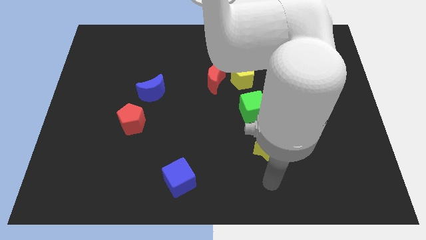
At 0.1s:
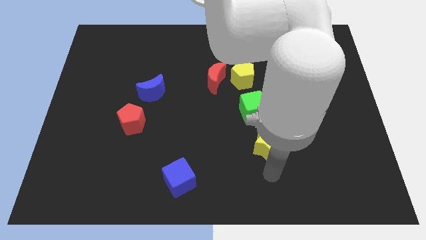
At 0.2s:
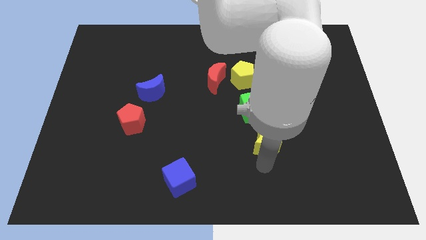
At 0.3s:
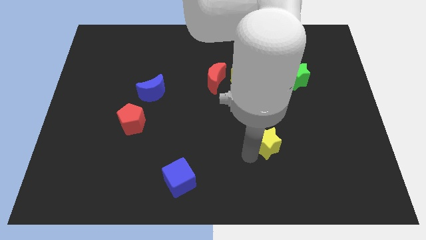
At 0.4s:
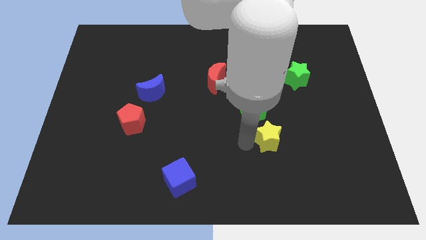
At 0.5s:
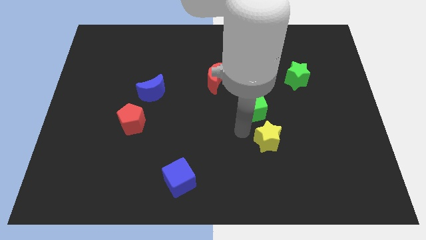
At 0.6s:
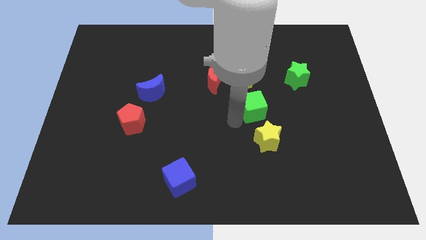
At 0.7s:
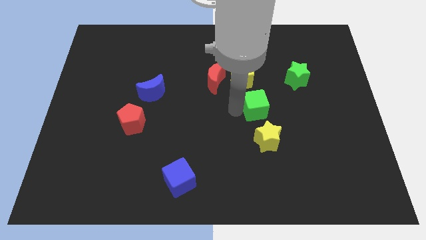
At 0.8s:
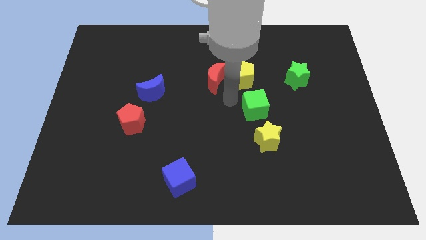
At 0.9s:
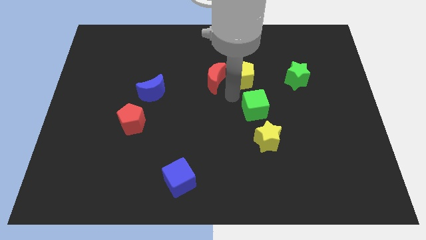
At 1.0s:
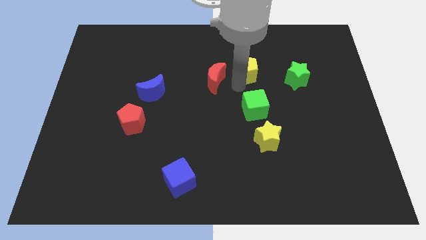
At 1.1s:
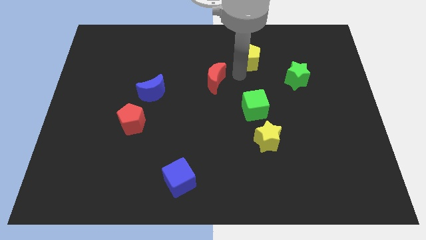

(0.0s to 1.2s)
move the red moon away from the yellow pentagon

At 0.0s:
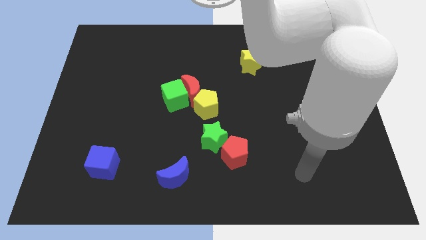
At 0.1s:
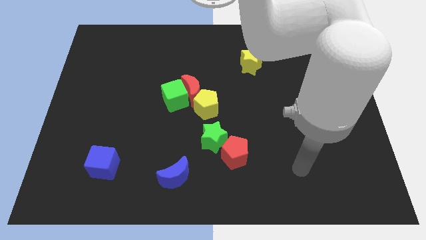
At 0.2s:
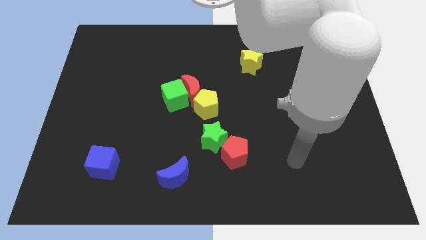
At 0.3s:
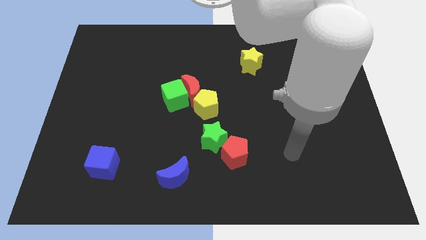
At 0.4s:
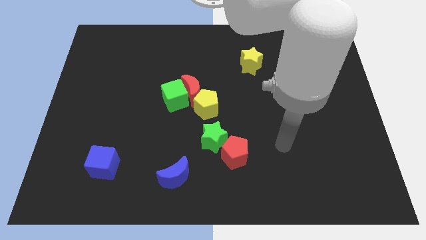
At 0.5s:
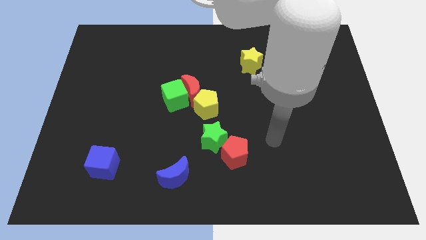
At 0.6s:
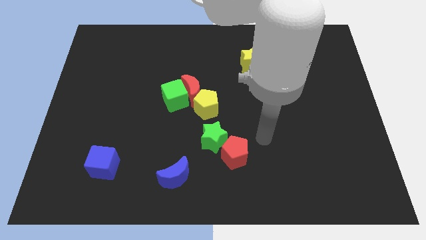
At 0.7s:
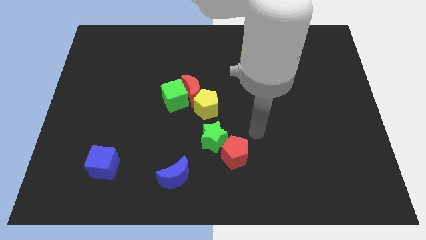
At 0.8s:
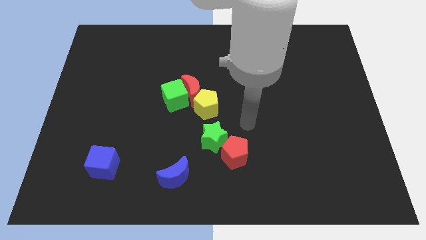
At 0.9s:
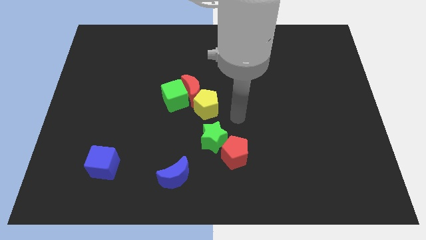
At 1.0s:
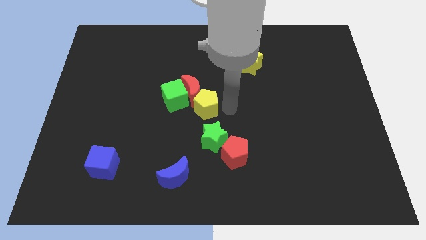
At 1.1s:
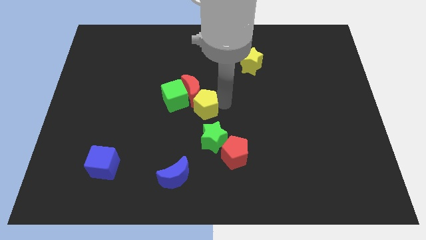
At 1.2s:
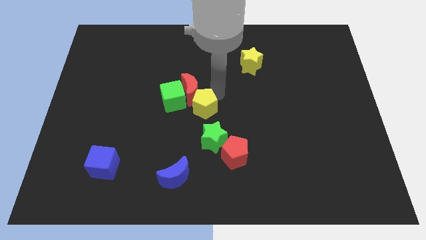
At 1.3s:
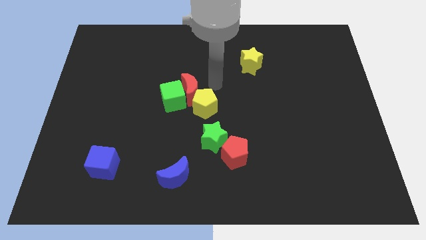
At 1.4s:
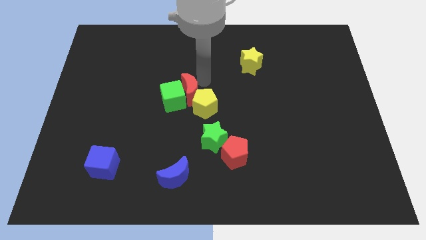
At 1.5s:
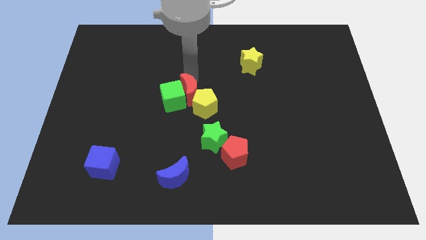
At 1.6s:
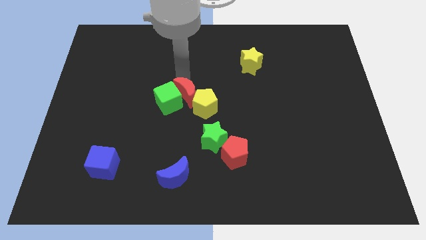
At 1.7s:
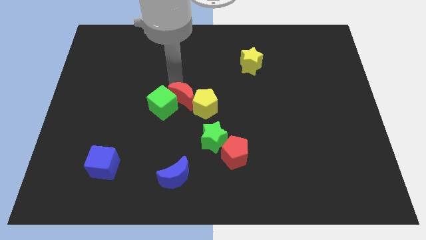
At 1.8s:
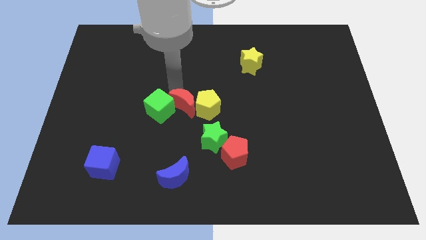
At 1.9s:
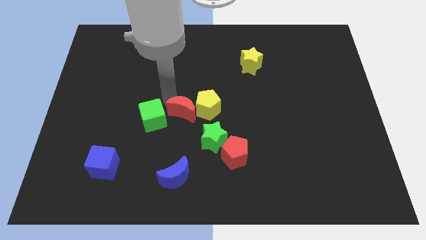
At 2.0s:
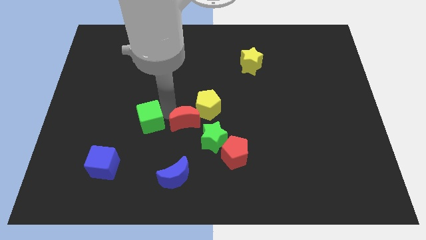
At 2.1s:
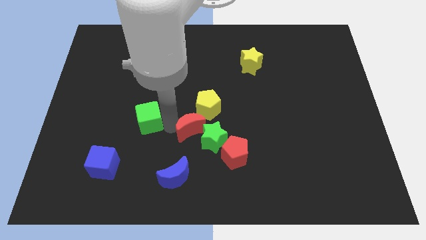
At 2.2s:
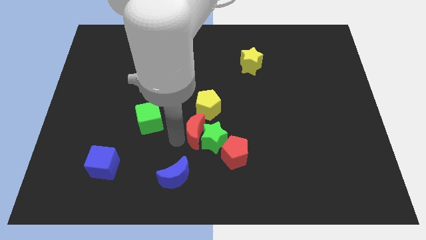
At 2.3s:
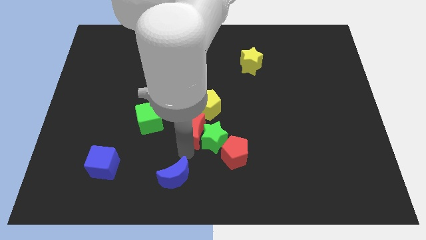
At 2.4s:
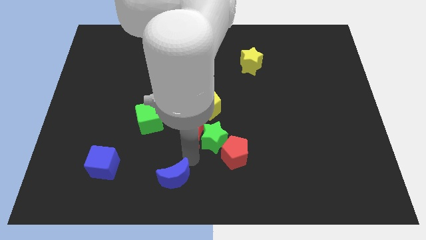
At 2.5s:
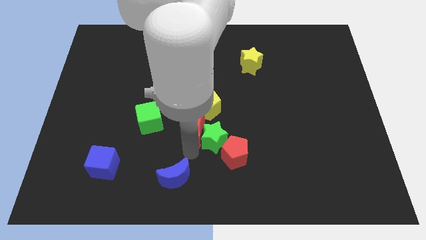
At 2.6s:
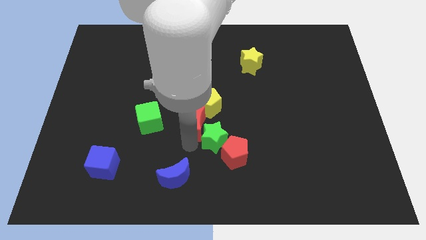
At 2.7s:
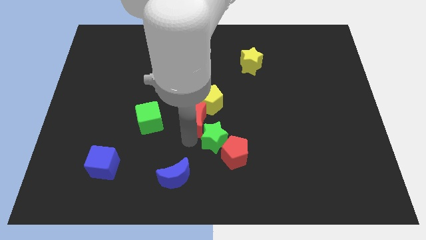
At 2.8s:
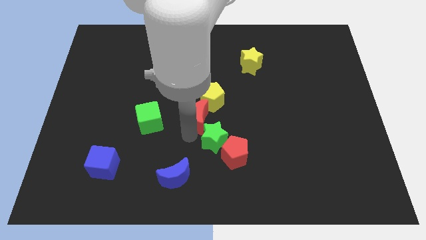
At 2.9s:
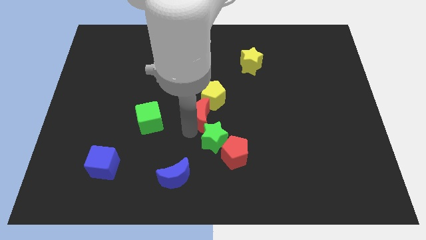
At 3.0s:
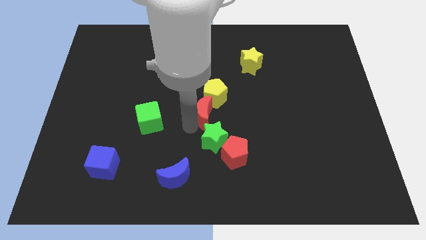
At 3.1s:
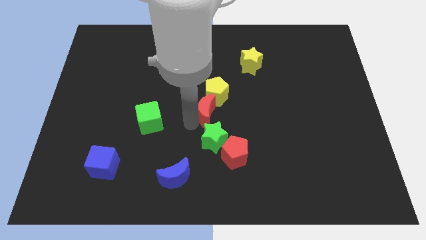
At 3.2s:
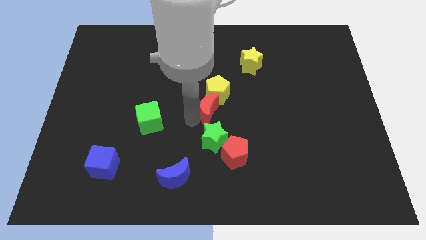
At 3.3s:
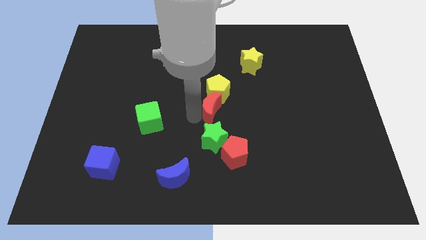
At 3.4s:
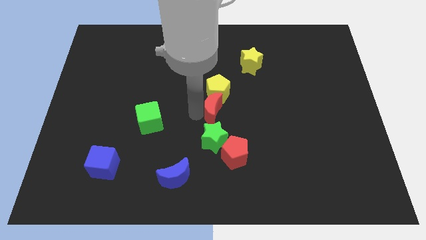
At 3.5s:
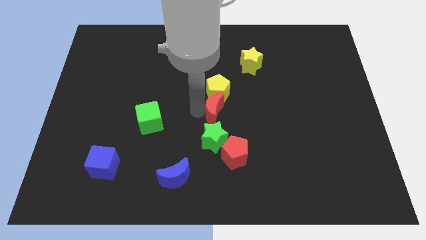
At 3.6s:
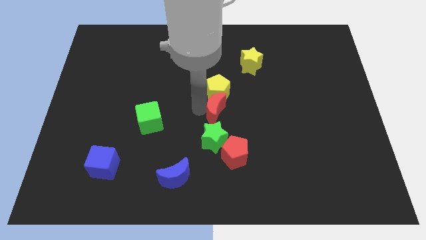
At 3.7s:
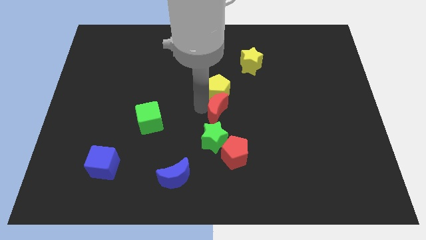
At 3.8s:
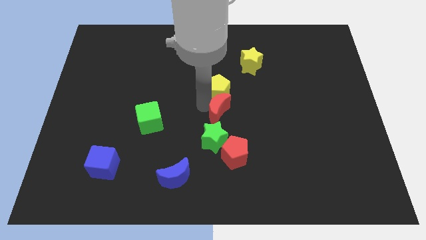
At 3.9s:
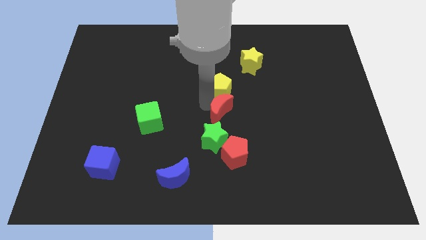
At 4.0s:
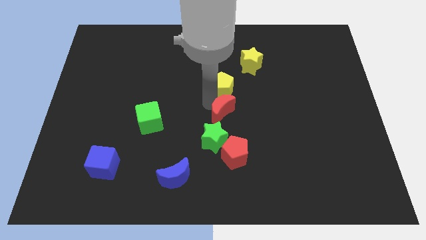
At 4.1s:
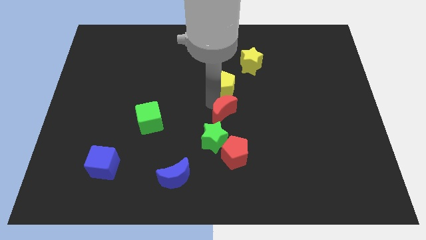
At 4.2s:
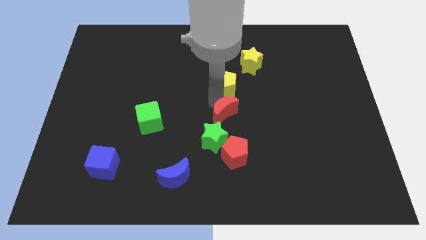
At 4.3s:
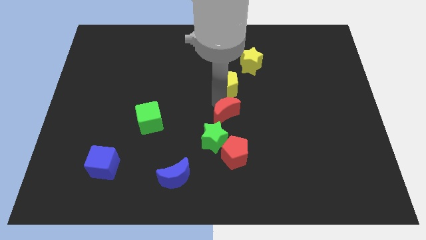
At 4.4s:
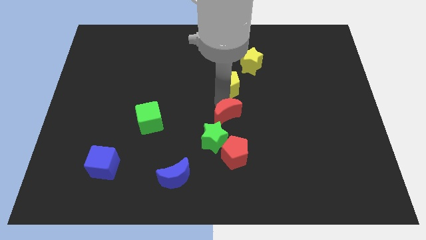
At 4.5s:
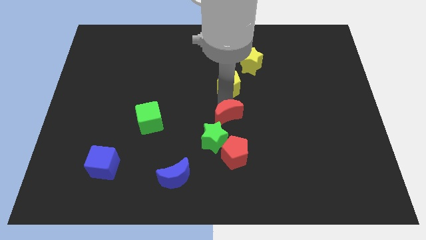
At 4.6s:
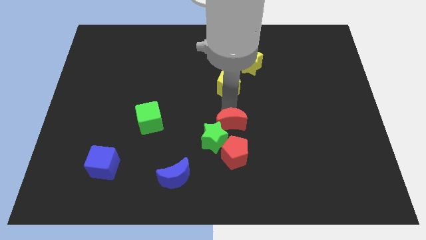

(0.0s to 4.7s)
move the red moon away from the green cube and yellow pentagon

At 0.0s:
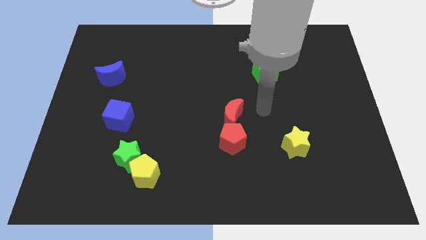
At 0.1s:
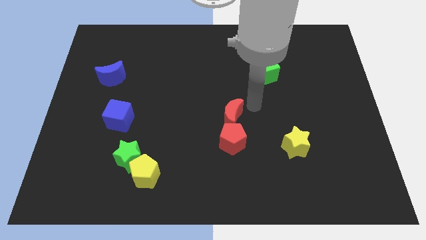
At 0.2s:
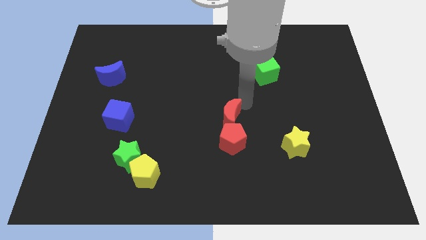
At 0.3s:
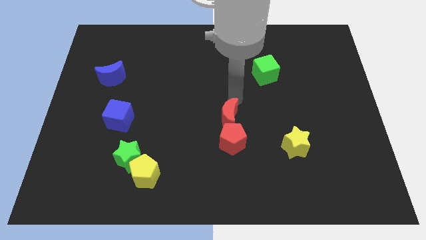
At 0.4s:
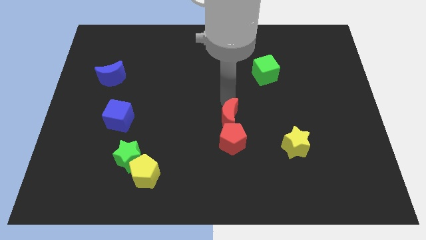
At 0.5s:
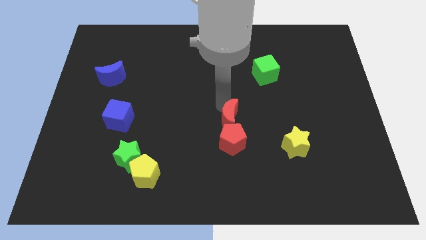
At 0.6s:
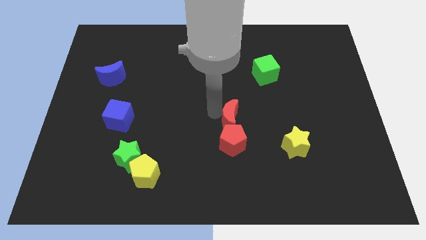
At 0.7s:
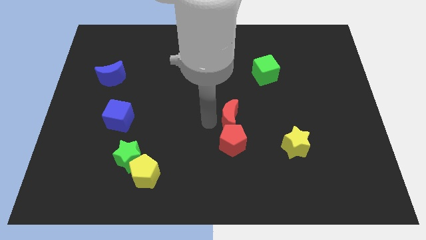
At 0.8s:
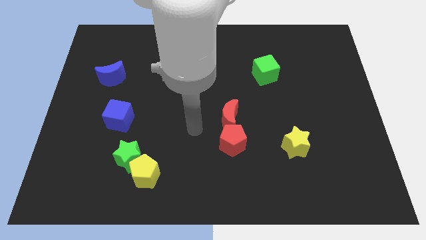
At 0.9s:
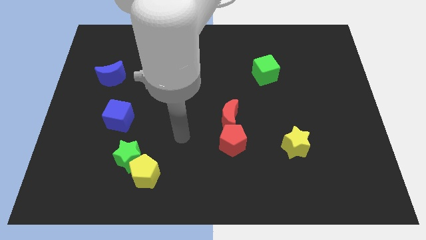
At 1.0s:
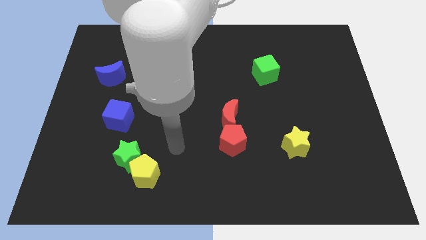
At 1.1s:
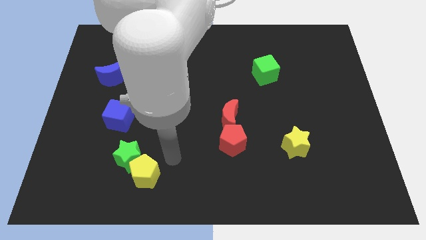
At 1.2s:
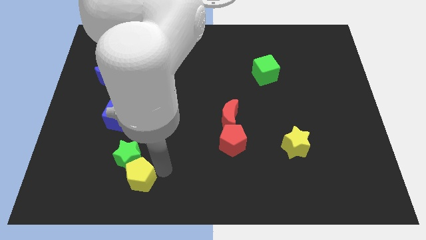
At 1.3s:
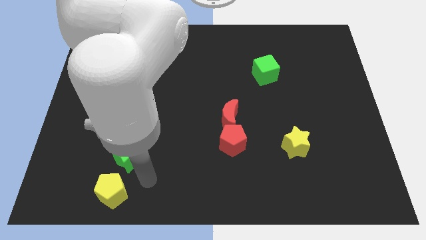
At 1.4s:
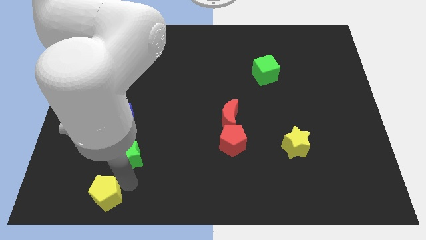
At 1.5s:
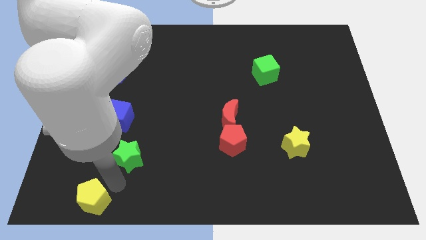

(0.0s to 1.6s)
pull the green star apart from the yellow pentagon

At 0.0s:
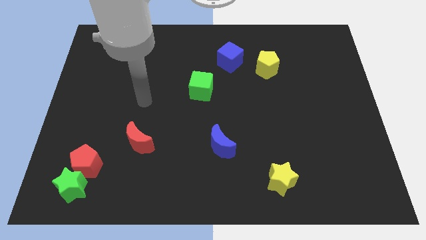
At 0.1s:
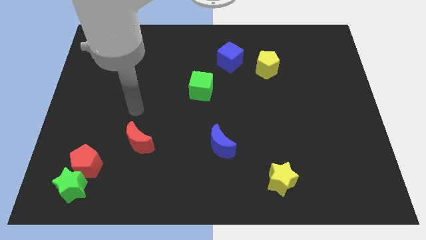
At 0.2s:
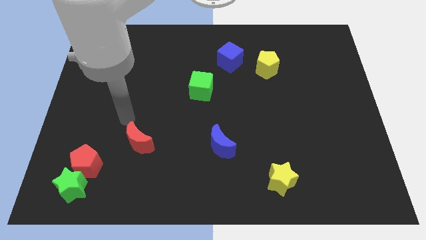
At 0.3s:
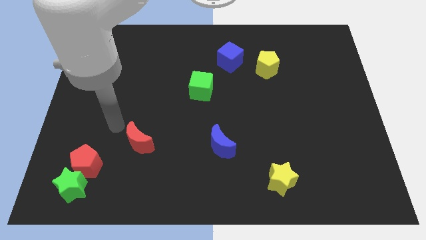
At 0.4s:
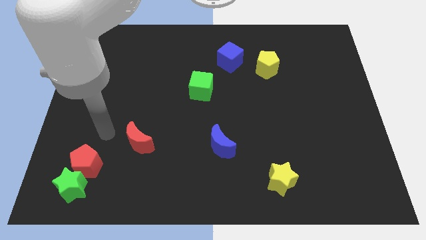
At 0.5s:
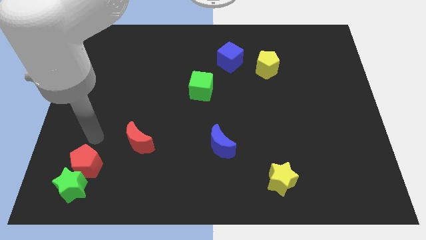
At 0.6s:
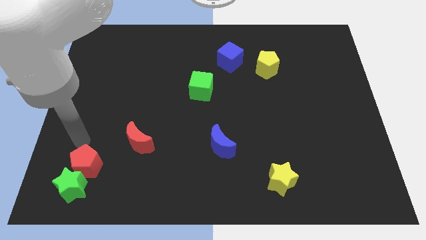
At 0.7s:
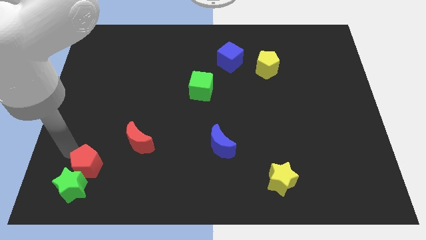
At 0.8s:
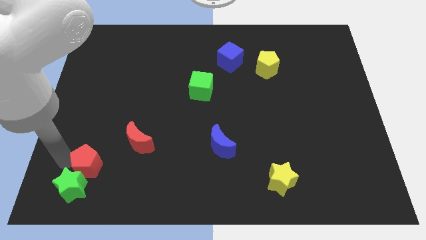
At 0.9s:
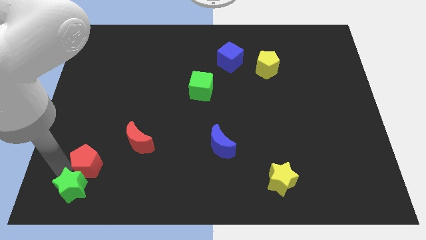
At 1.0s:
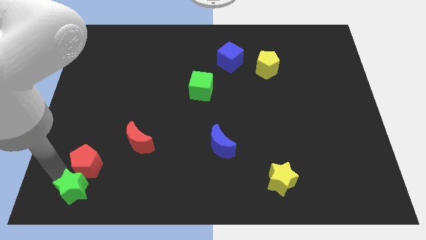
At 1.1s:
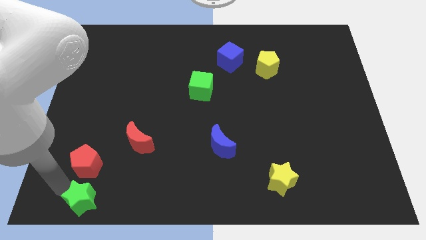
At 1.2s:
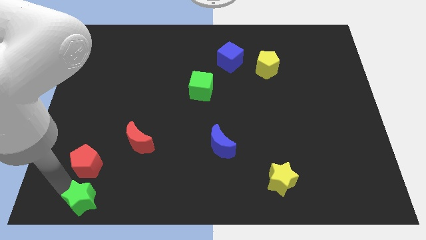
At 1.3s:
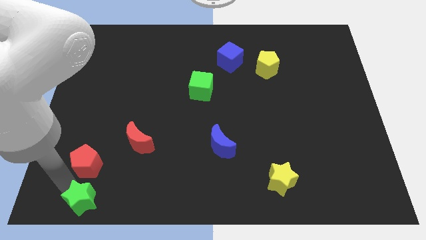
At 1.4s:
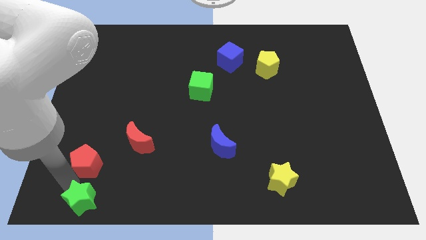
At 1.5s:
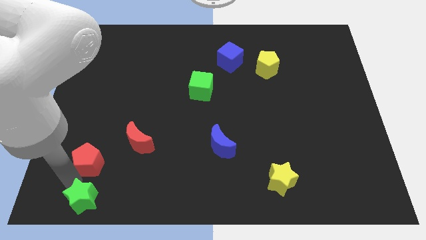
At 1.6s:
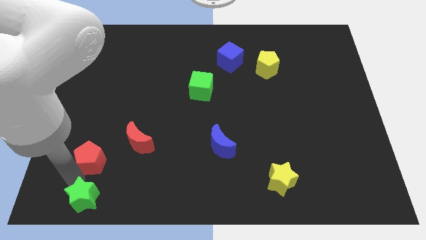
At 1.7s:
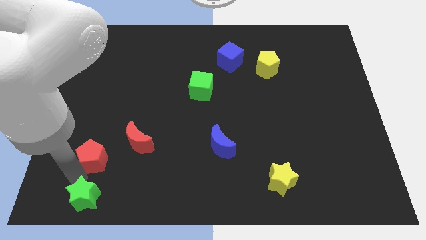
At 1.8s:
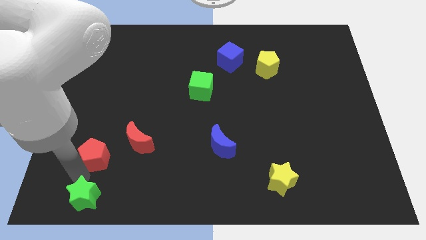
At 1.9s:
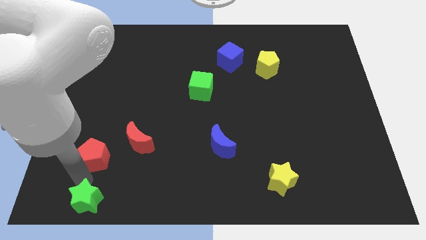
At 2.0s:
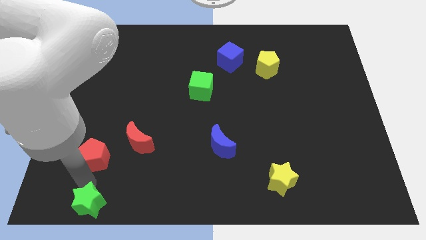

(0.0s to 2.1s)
separate the red pentagon from the green star
